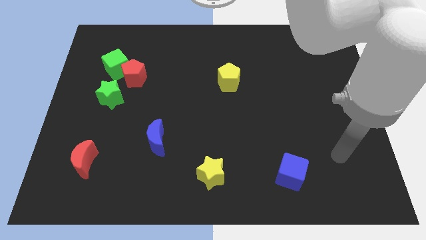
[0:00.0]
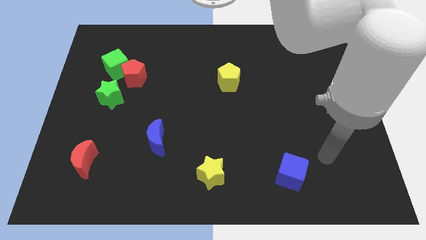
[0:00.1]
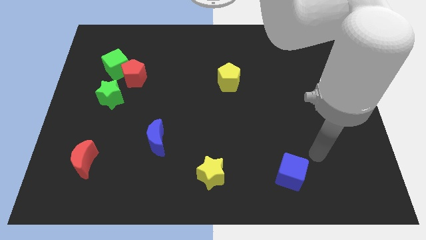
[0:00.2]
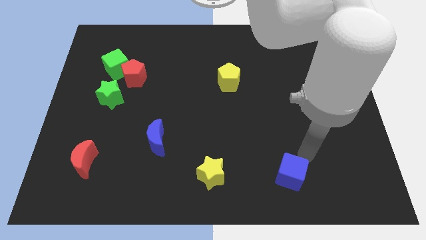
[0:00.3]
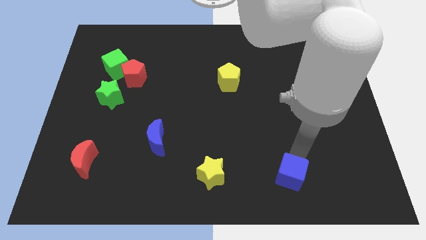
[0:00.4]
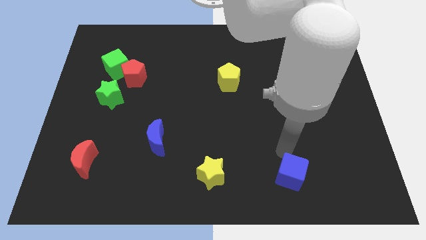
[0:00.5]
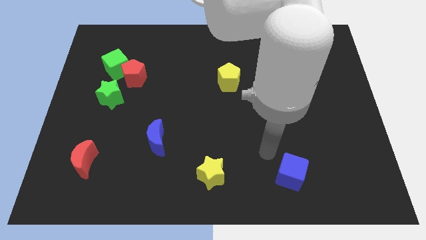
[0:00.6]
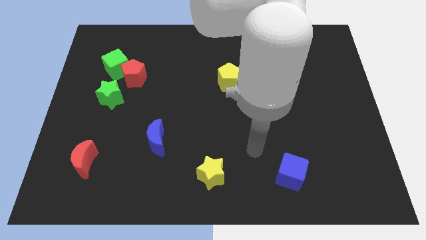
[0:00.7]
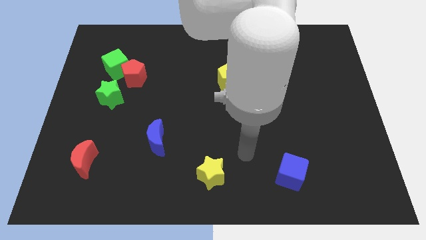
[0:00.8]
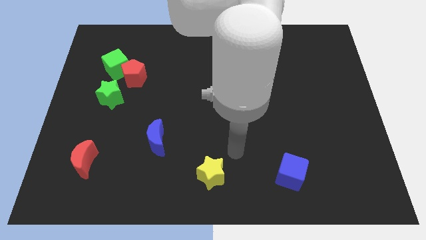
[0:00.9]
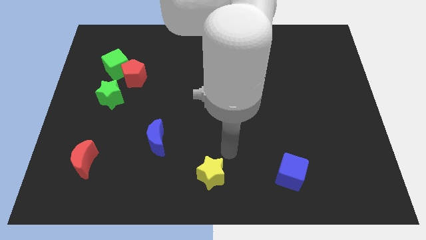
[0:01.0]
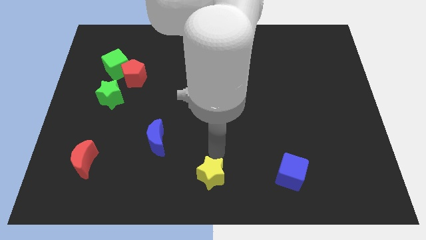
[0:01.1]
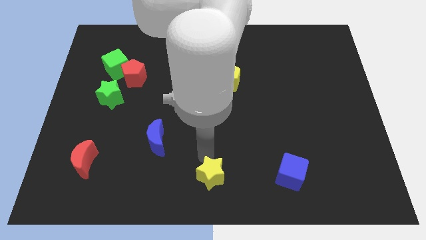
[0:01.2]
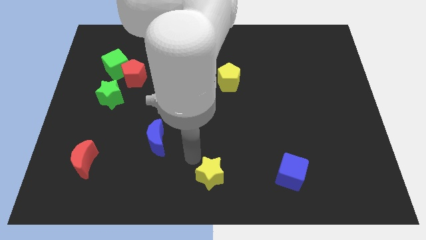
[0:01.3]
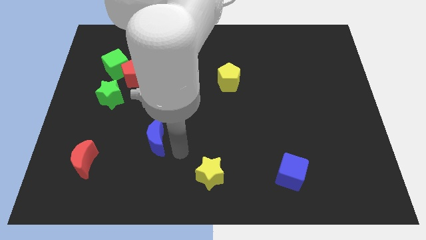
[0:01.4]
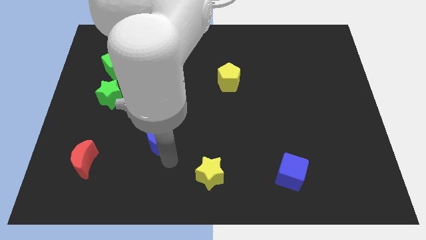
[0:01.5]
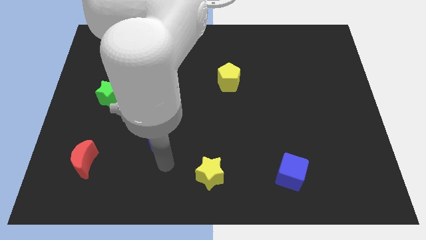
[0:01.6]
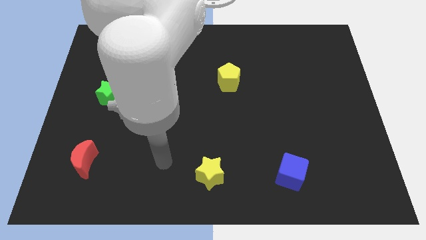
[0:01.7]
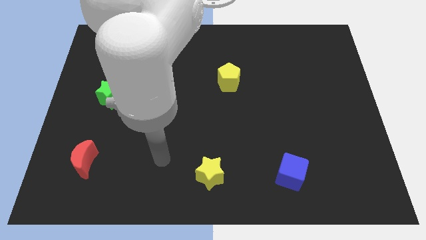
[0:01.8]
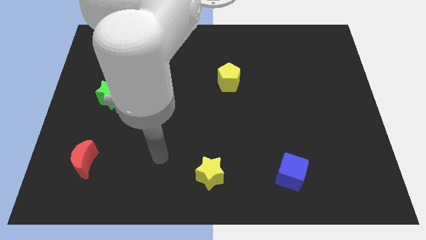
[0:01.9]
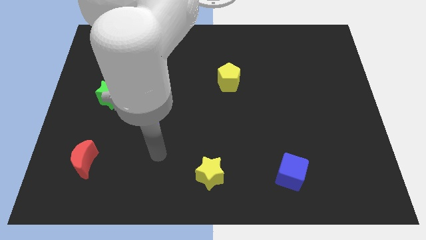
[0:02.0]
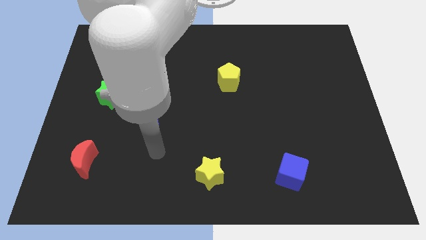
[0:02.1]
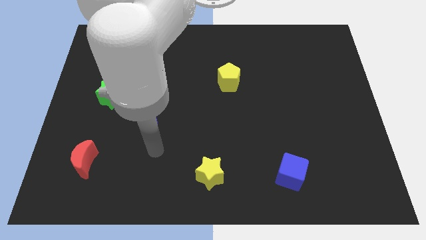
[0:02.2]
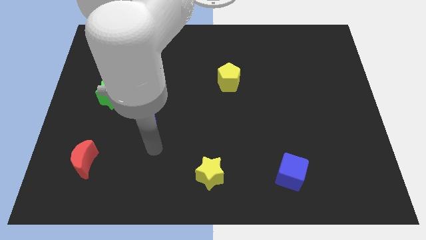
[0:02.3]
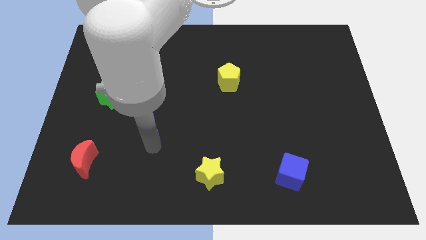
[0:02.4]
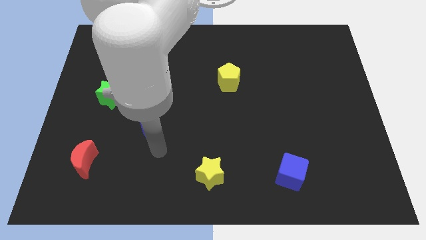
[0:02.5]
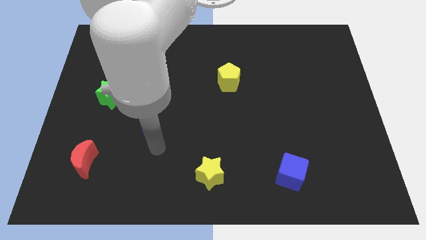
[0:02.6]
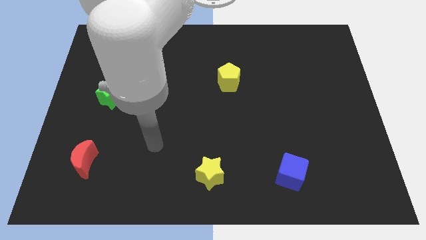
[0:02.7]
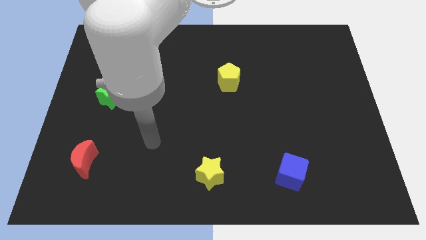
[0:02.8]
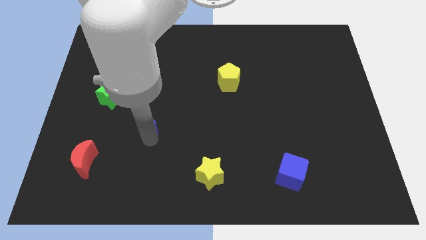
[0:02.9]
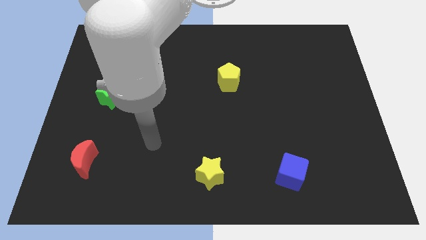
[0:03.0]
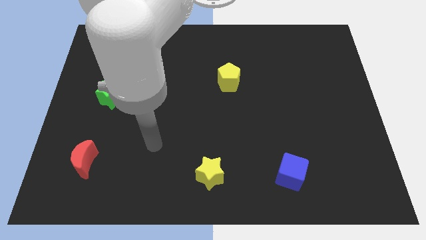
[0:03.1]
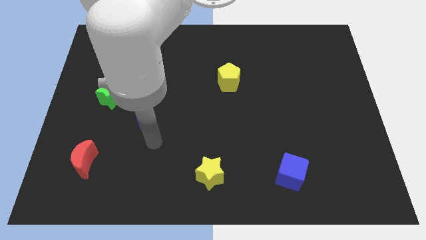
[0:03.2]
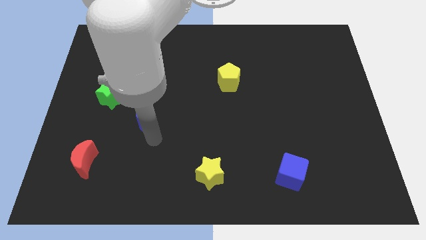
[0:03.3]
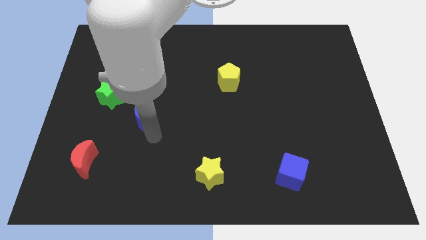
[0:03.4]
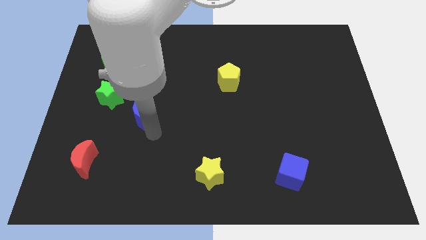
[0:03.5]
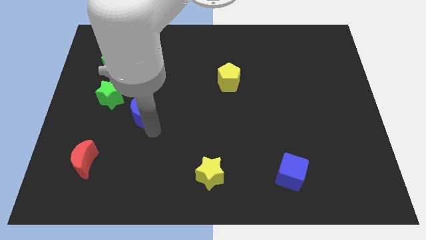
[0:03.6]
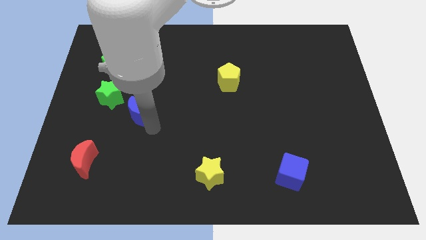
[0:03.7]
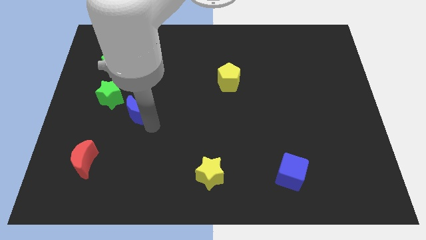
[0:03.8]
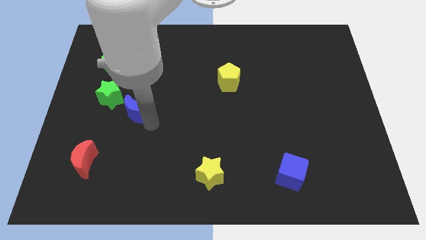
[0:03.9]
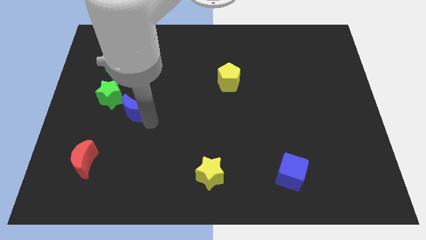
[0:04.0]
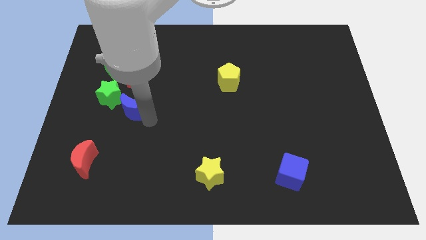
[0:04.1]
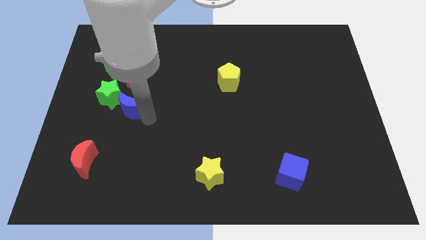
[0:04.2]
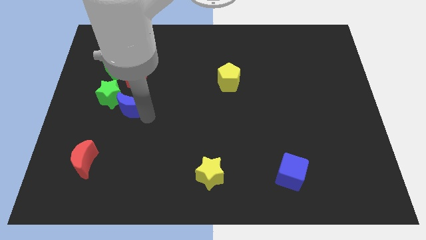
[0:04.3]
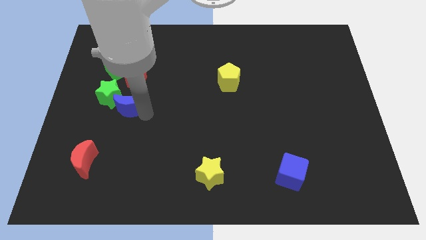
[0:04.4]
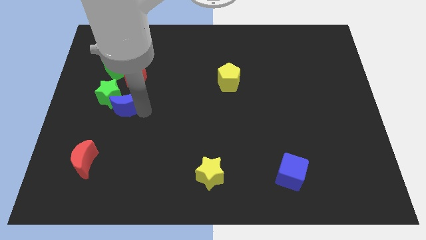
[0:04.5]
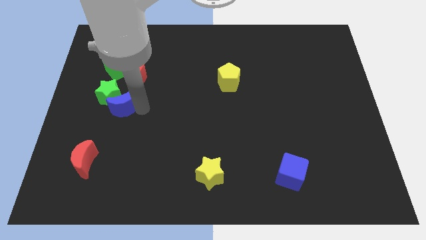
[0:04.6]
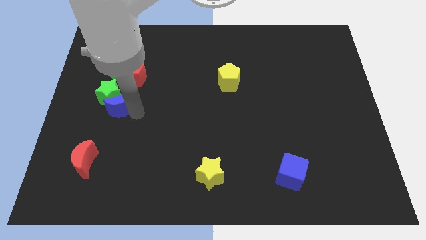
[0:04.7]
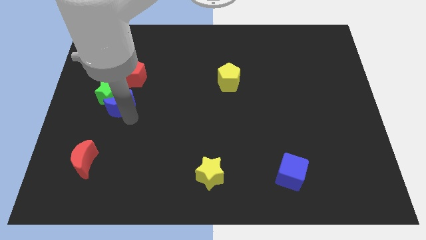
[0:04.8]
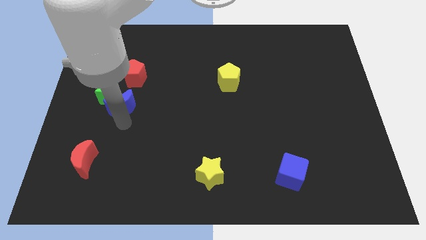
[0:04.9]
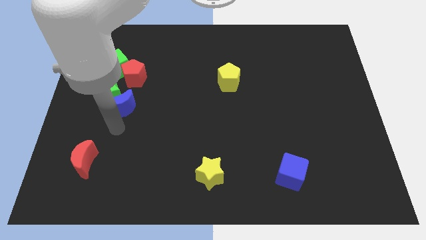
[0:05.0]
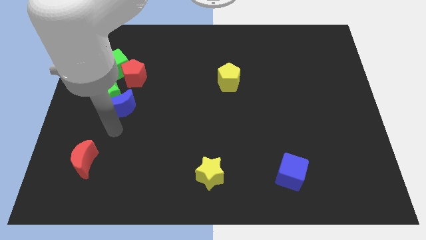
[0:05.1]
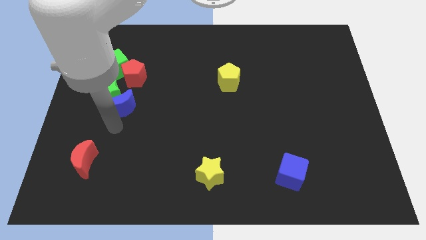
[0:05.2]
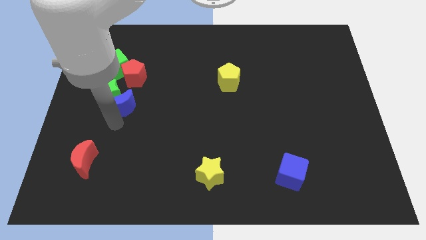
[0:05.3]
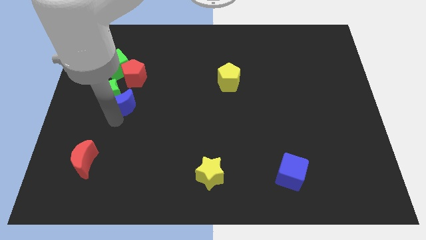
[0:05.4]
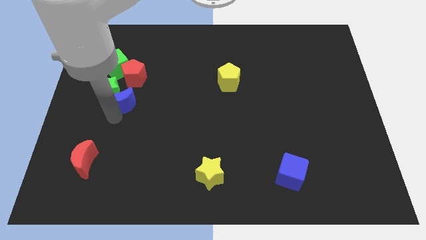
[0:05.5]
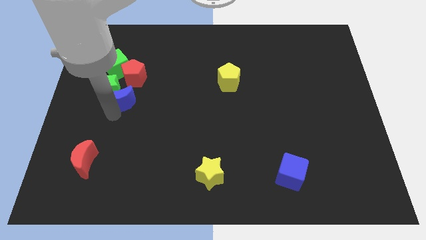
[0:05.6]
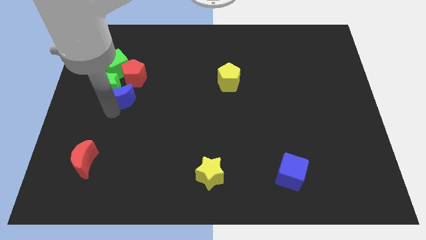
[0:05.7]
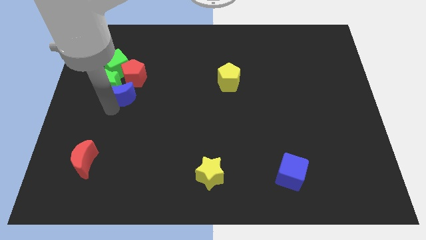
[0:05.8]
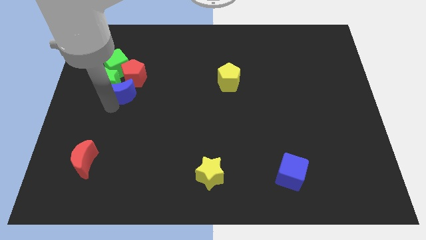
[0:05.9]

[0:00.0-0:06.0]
slide the blue moon towards the red pentagon

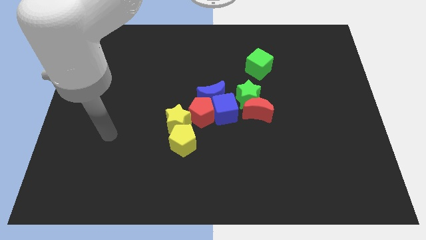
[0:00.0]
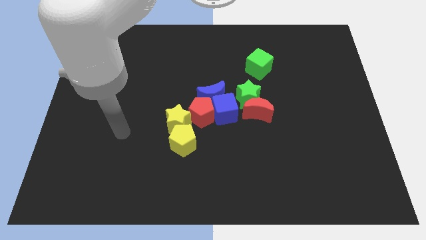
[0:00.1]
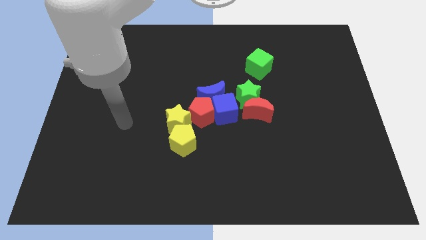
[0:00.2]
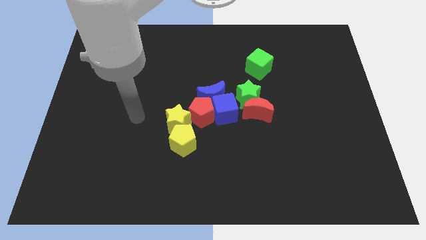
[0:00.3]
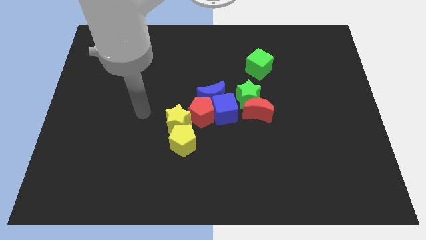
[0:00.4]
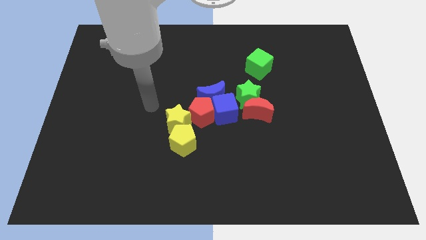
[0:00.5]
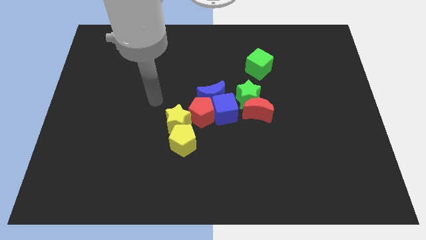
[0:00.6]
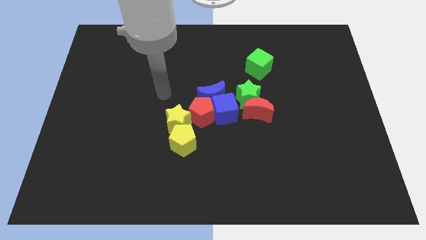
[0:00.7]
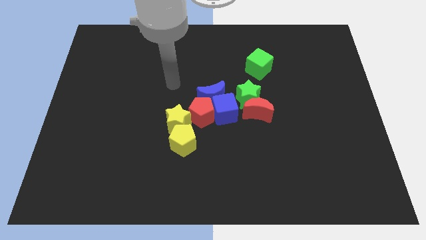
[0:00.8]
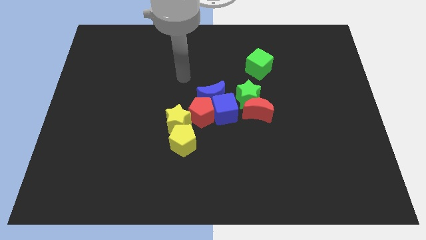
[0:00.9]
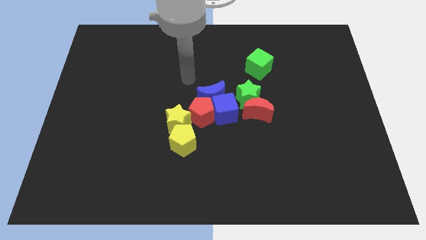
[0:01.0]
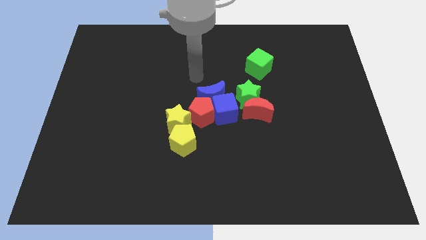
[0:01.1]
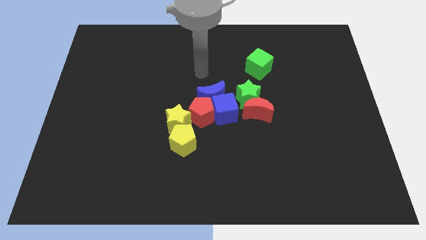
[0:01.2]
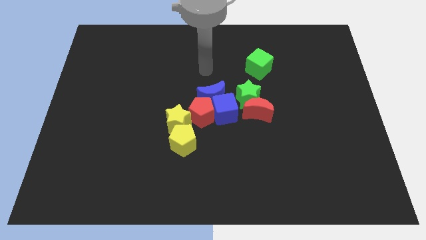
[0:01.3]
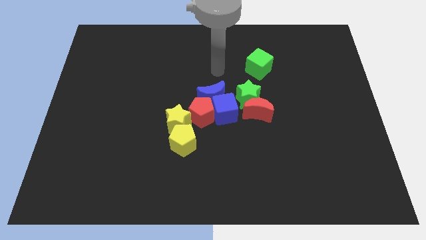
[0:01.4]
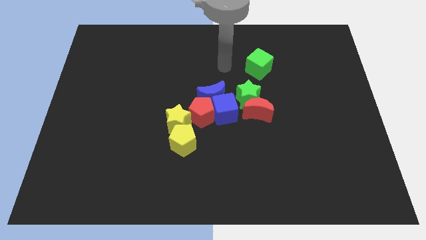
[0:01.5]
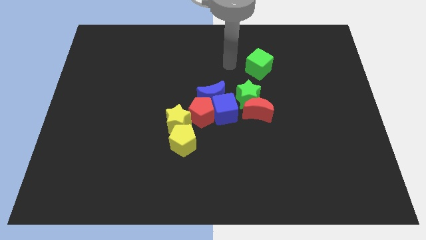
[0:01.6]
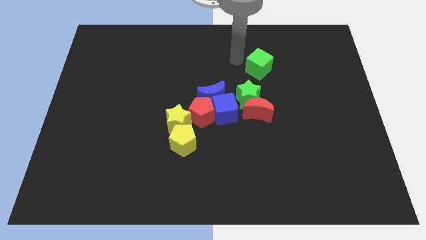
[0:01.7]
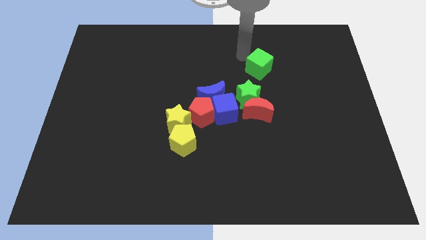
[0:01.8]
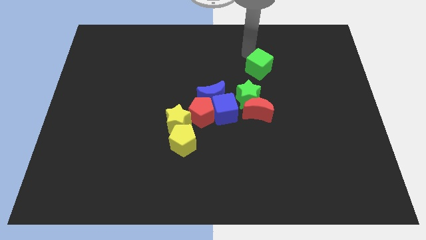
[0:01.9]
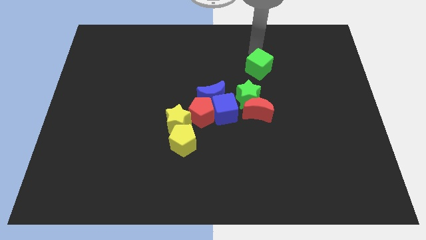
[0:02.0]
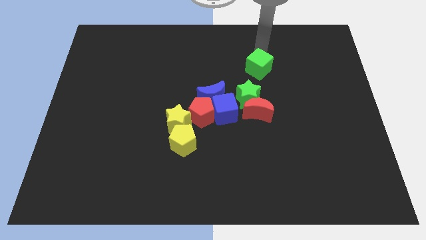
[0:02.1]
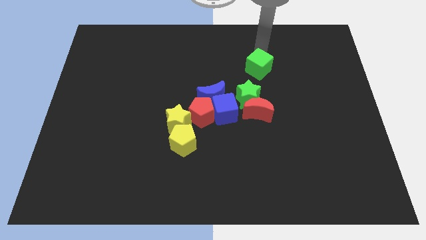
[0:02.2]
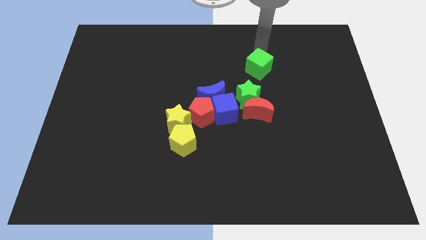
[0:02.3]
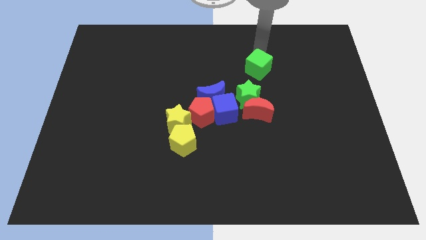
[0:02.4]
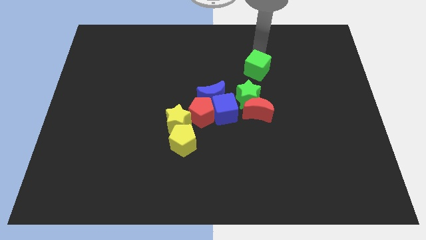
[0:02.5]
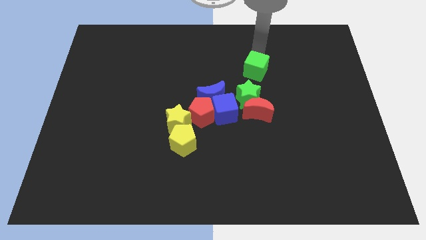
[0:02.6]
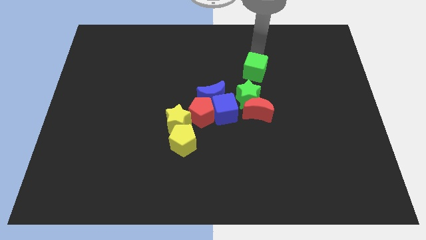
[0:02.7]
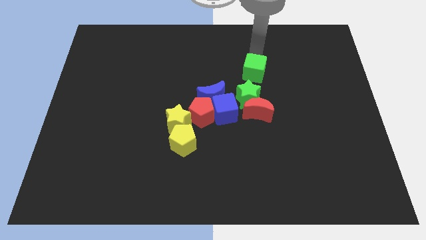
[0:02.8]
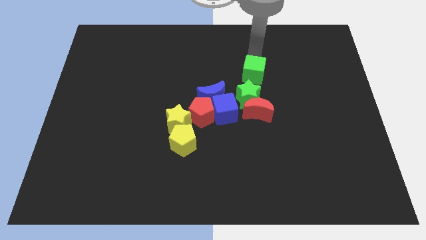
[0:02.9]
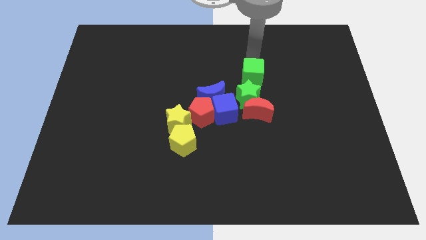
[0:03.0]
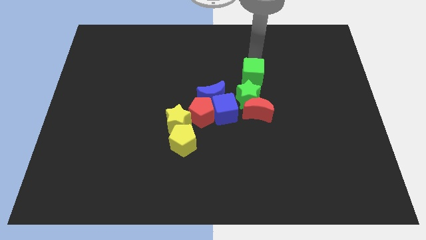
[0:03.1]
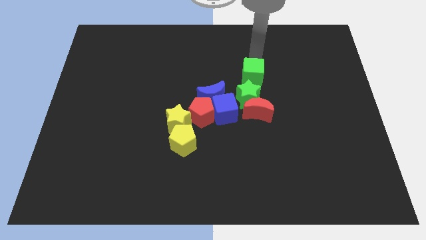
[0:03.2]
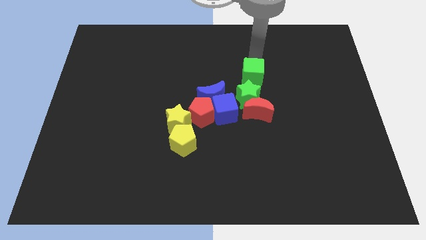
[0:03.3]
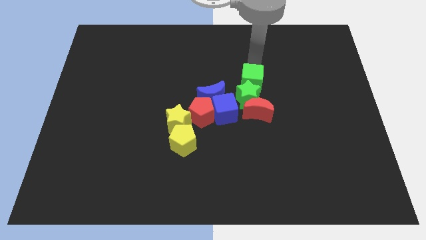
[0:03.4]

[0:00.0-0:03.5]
move the green cube next to the green star
